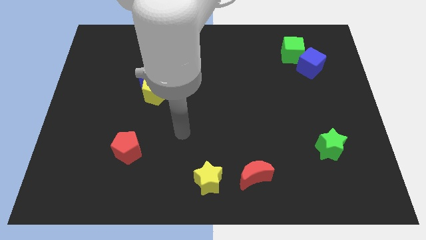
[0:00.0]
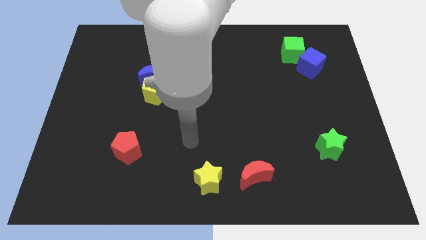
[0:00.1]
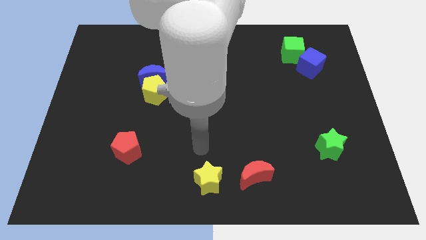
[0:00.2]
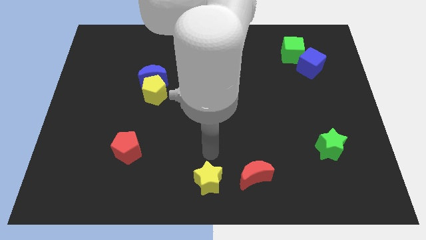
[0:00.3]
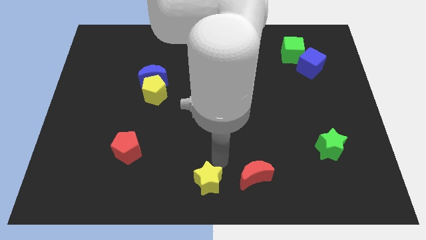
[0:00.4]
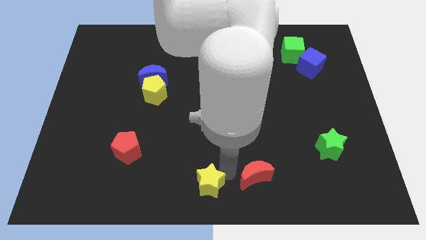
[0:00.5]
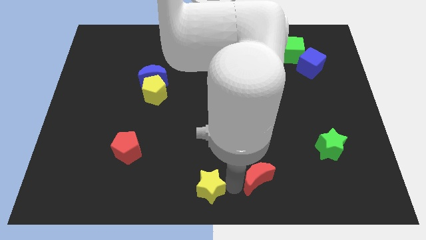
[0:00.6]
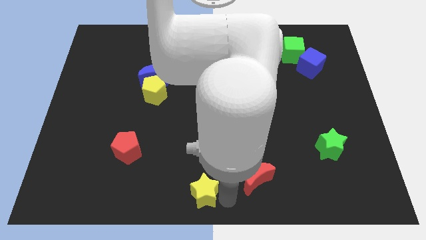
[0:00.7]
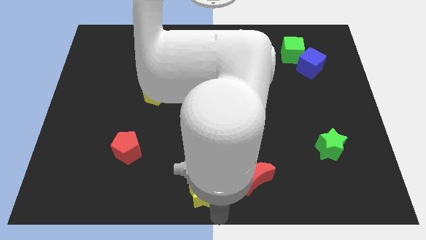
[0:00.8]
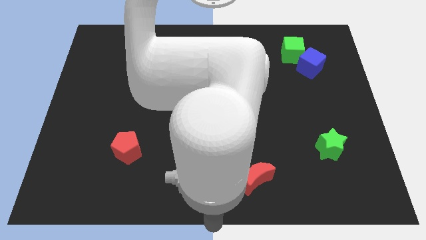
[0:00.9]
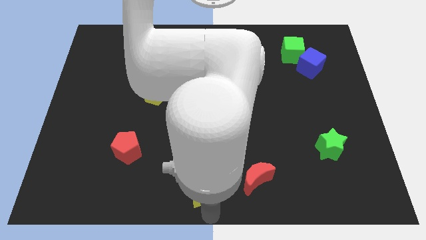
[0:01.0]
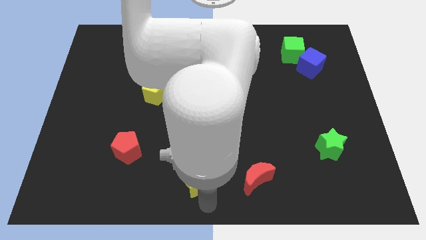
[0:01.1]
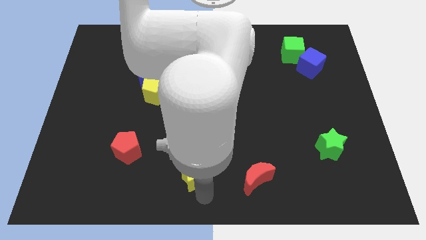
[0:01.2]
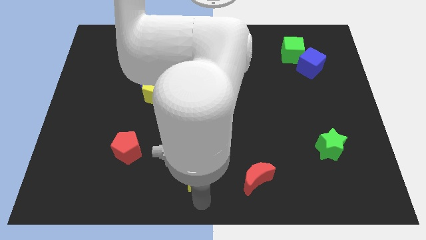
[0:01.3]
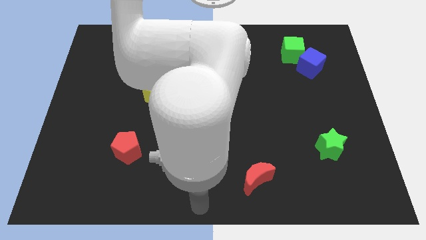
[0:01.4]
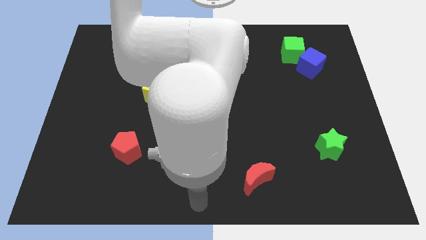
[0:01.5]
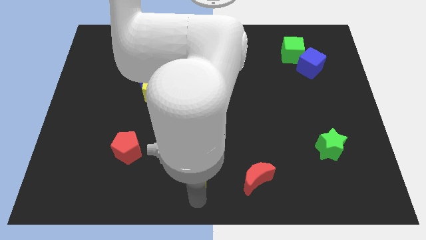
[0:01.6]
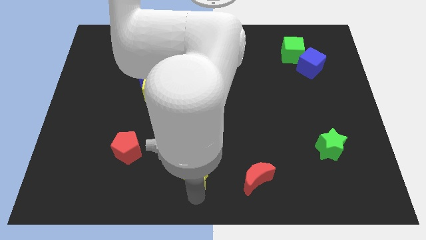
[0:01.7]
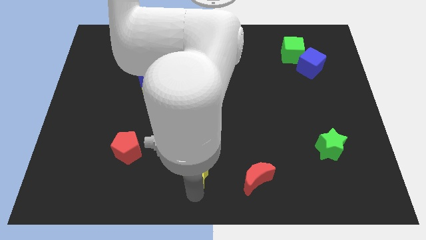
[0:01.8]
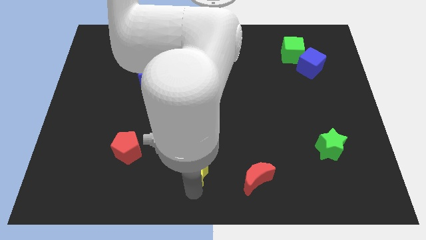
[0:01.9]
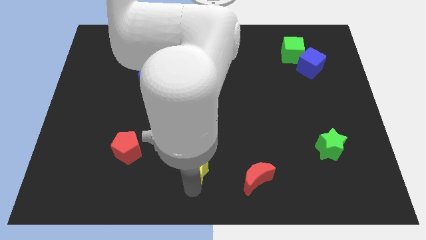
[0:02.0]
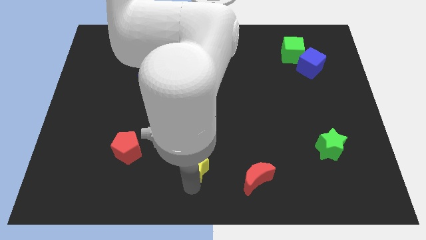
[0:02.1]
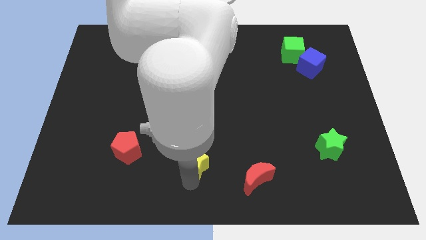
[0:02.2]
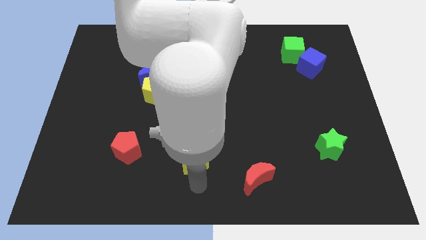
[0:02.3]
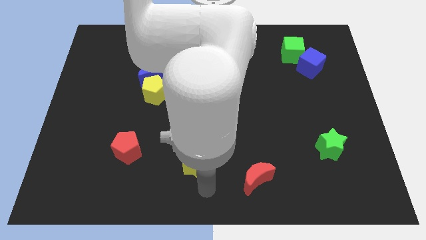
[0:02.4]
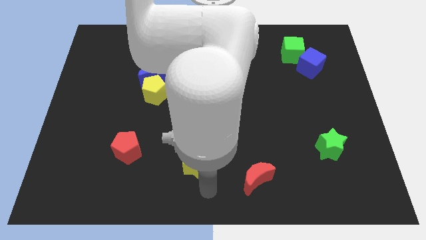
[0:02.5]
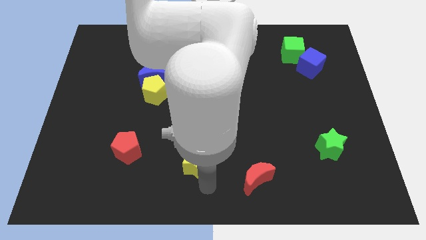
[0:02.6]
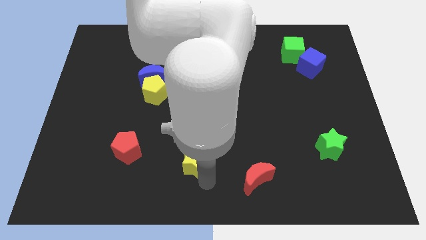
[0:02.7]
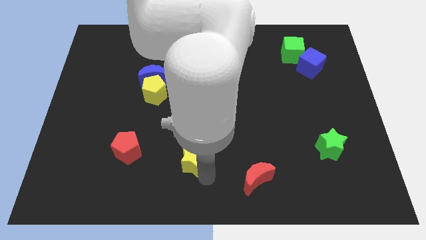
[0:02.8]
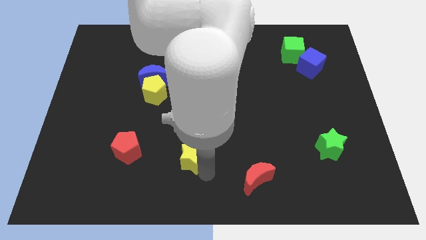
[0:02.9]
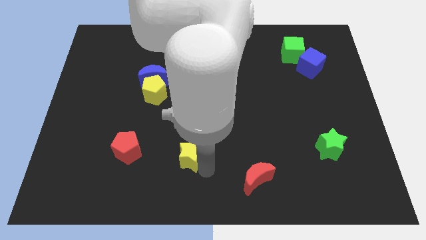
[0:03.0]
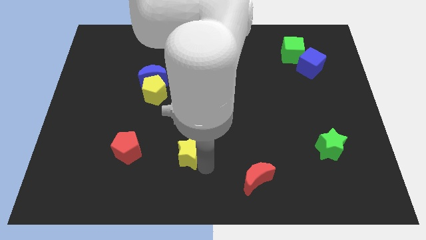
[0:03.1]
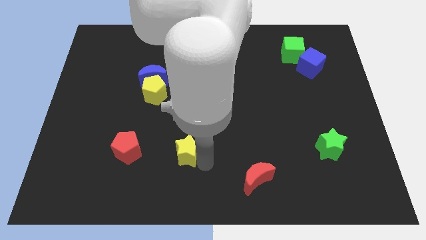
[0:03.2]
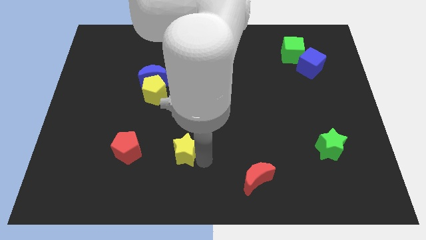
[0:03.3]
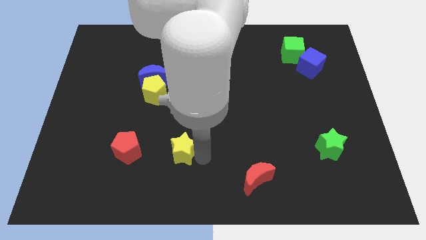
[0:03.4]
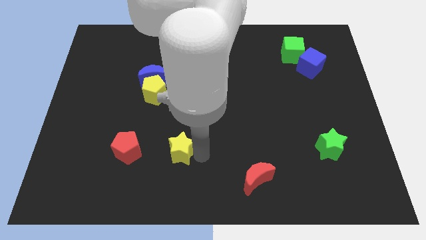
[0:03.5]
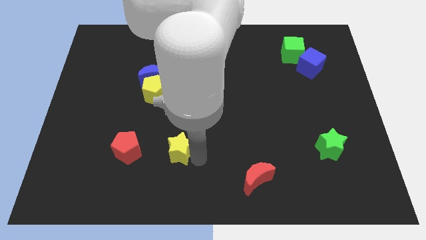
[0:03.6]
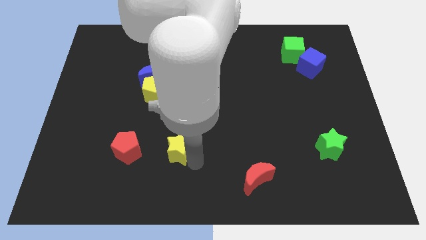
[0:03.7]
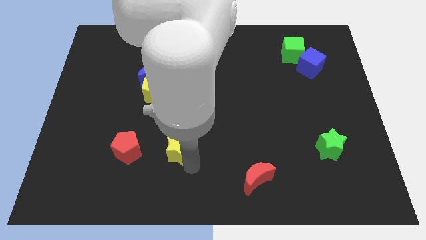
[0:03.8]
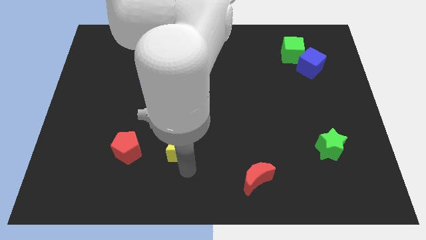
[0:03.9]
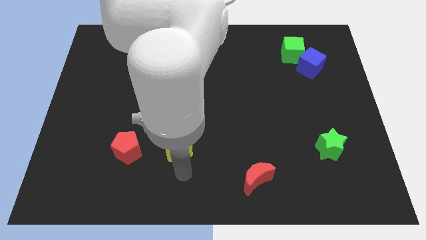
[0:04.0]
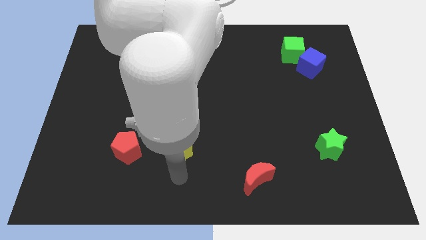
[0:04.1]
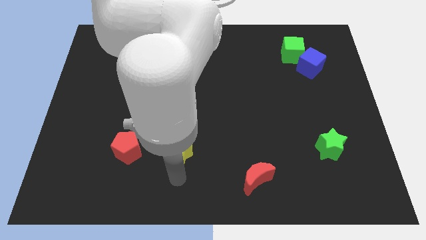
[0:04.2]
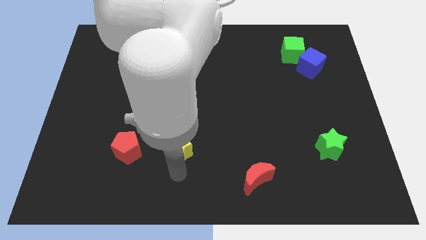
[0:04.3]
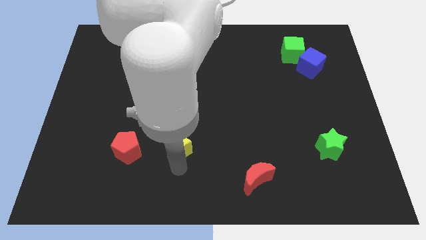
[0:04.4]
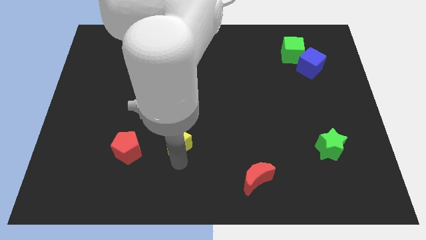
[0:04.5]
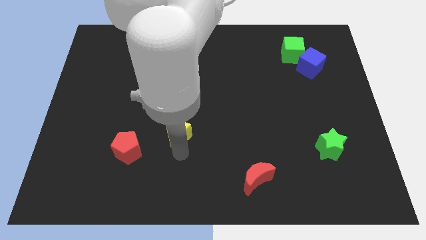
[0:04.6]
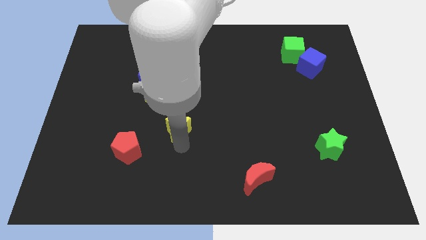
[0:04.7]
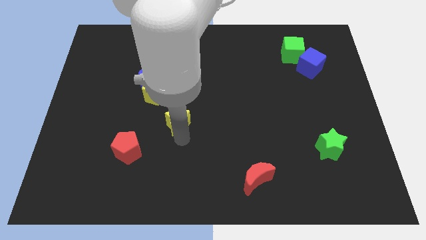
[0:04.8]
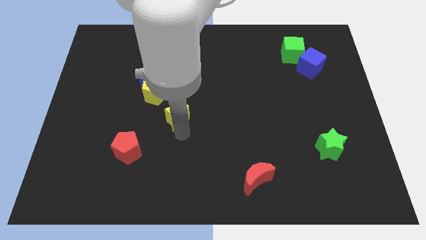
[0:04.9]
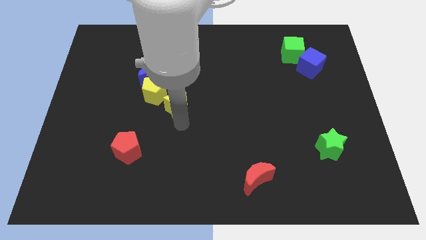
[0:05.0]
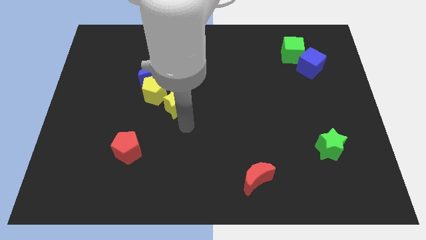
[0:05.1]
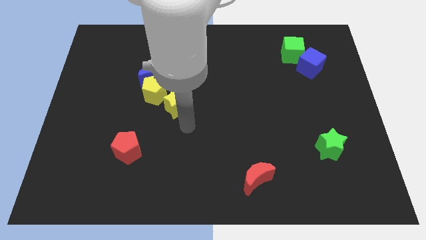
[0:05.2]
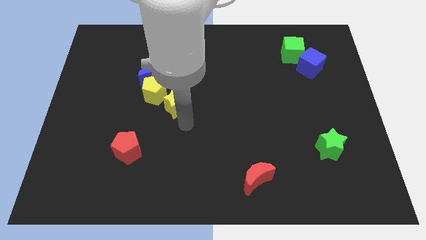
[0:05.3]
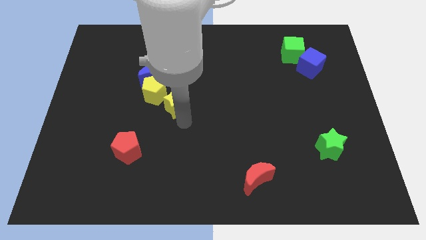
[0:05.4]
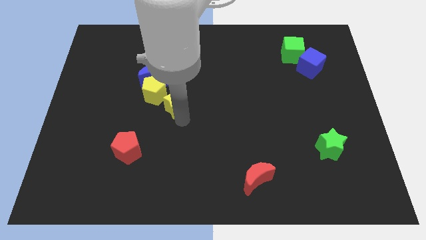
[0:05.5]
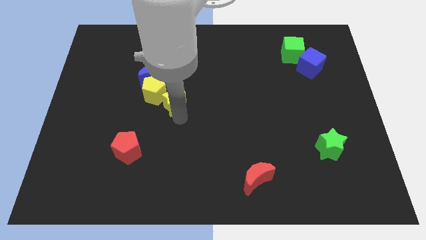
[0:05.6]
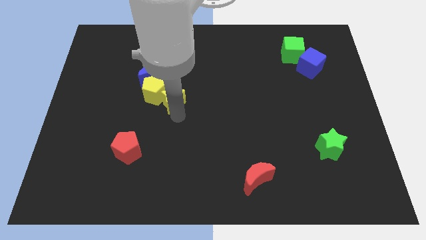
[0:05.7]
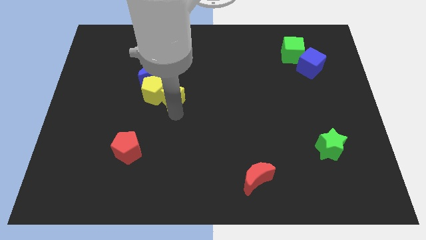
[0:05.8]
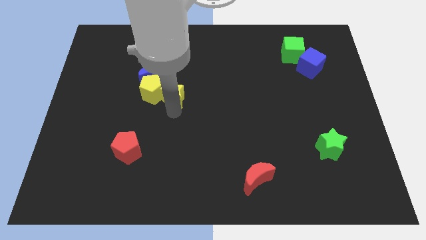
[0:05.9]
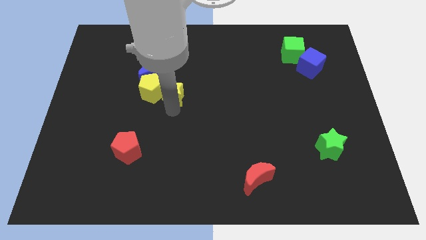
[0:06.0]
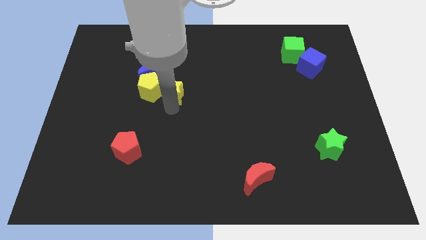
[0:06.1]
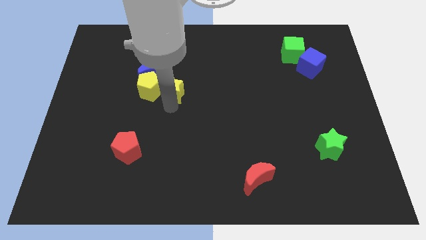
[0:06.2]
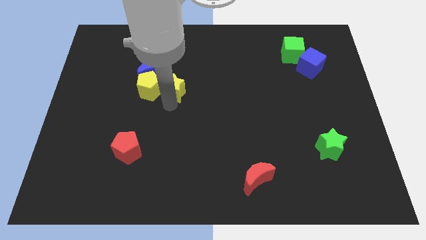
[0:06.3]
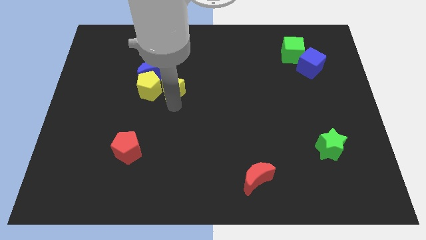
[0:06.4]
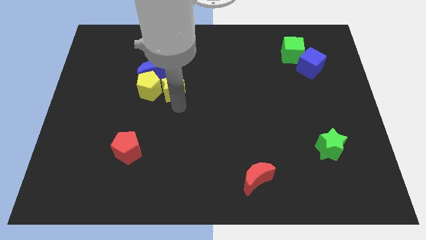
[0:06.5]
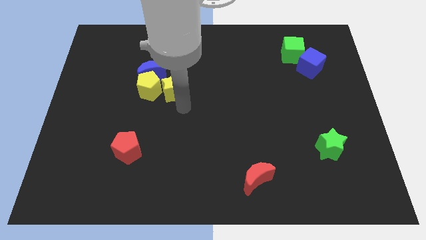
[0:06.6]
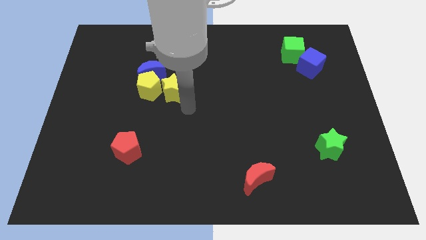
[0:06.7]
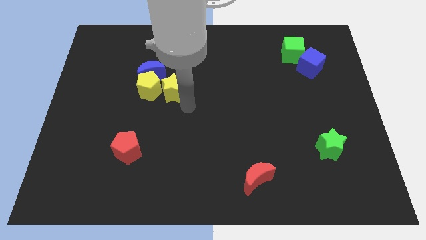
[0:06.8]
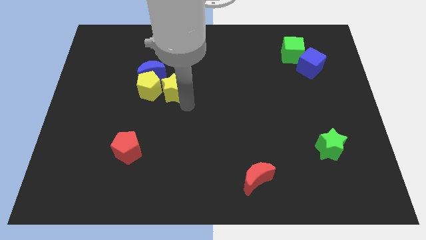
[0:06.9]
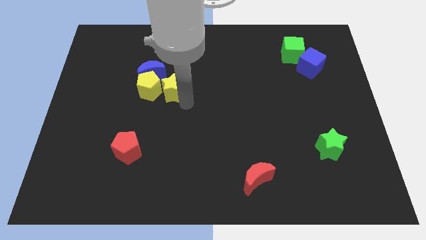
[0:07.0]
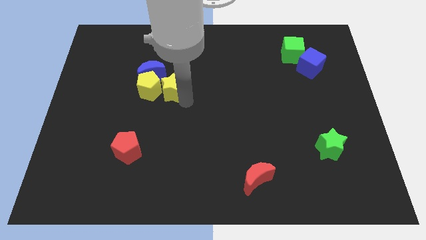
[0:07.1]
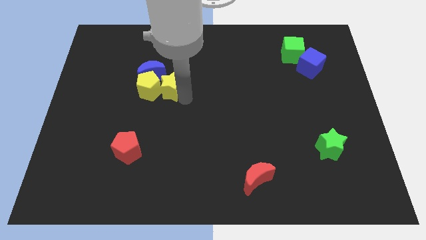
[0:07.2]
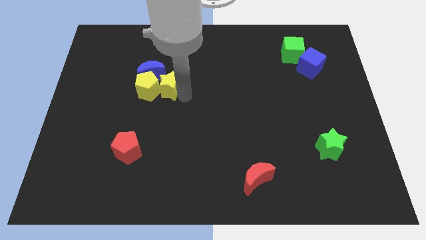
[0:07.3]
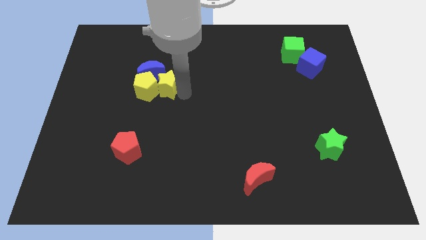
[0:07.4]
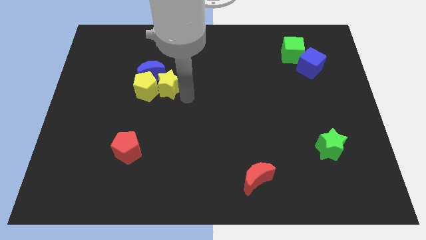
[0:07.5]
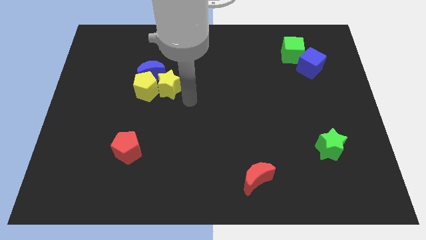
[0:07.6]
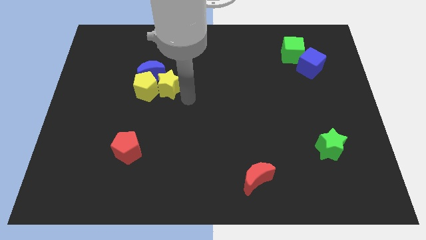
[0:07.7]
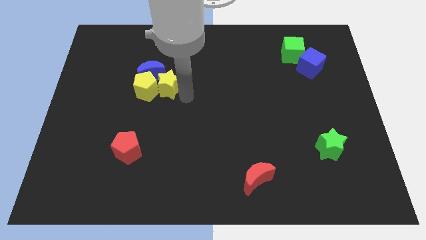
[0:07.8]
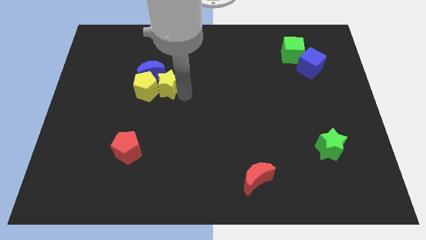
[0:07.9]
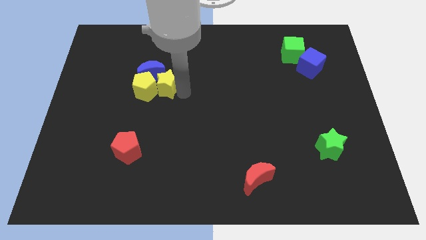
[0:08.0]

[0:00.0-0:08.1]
put the yellow star close to the blue moon
